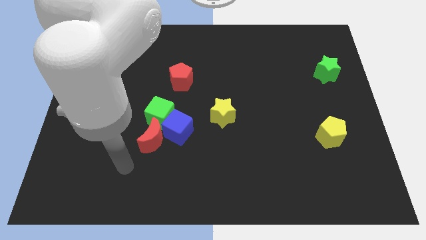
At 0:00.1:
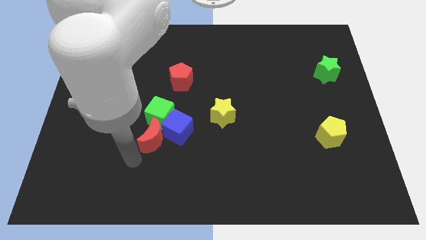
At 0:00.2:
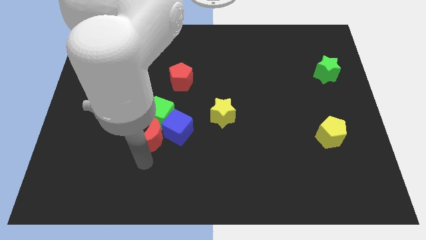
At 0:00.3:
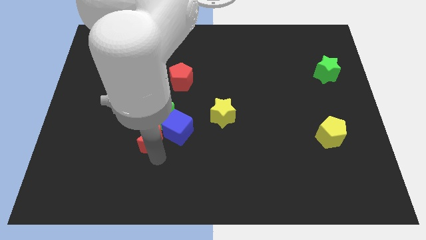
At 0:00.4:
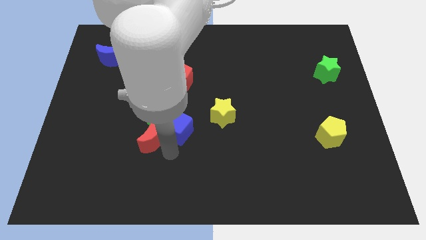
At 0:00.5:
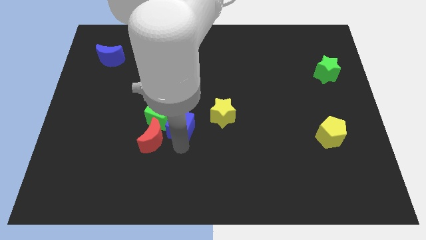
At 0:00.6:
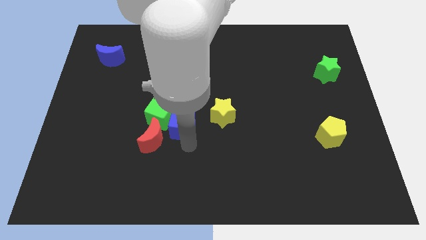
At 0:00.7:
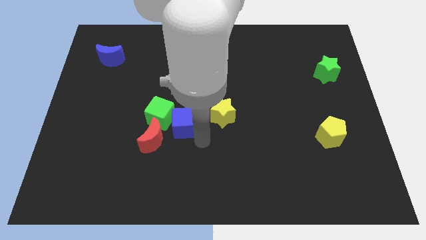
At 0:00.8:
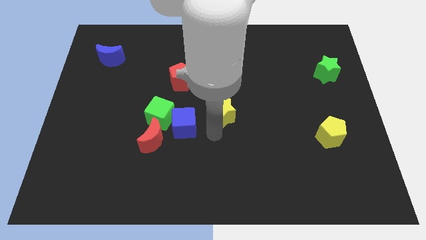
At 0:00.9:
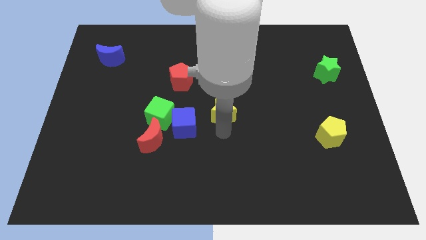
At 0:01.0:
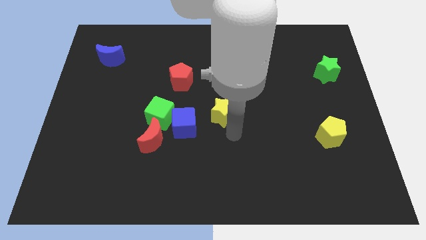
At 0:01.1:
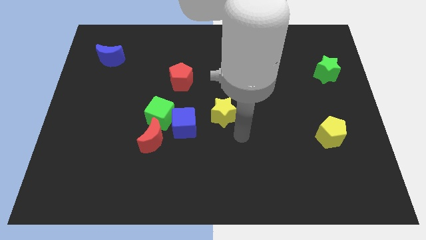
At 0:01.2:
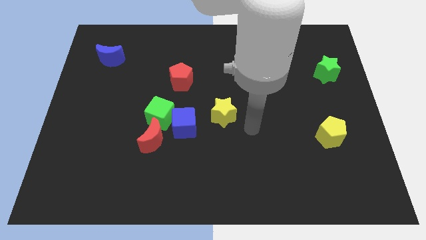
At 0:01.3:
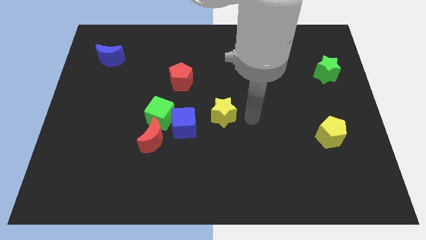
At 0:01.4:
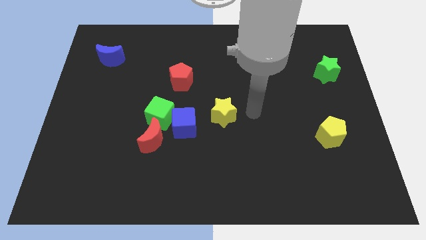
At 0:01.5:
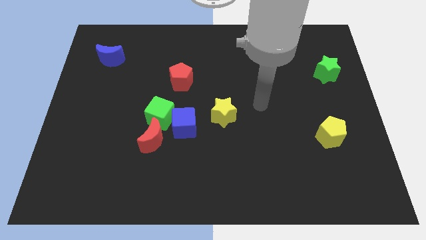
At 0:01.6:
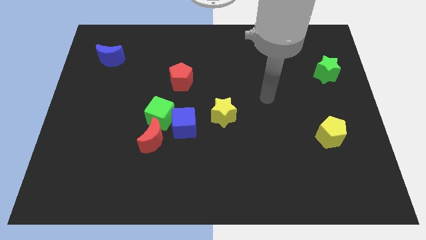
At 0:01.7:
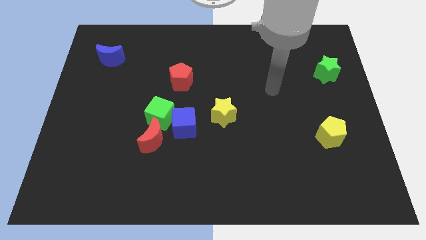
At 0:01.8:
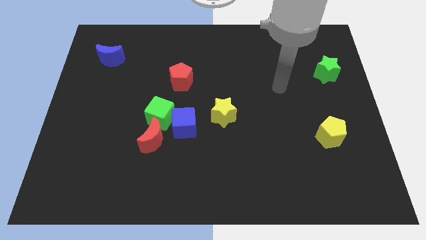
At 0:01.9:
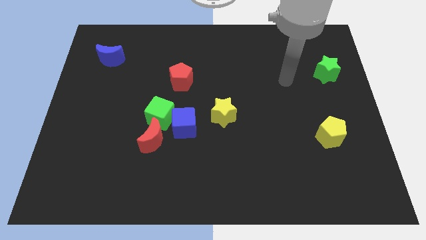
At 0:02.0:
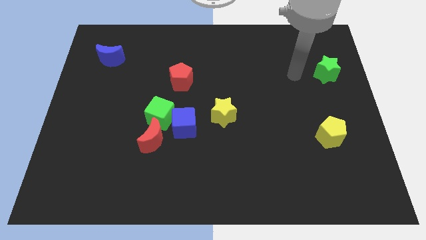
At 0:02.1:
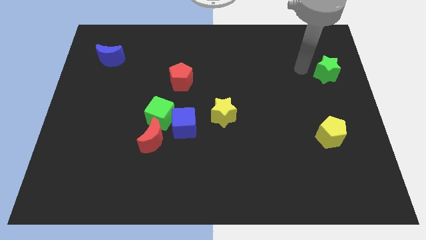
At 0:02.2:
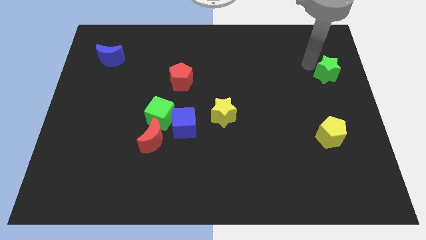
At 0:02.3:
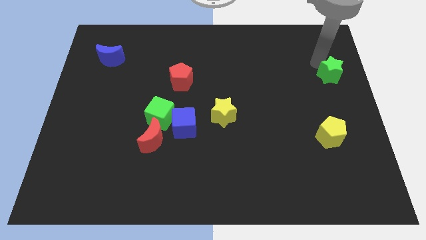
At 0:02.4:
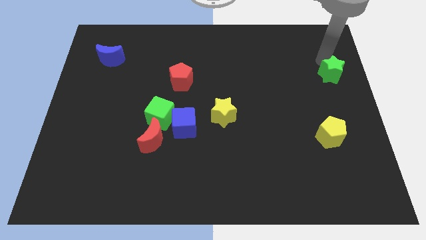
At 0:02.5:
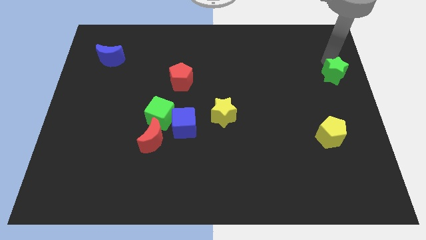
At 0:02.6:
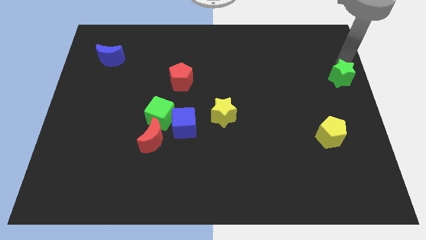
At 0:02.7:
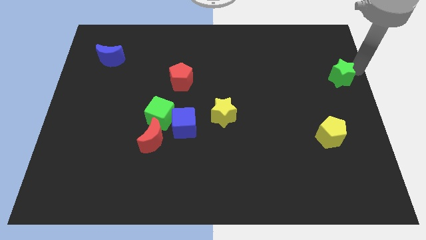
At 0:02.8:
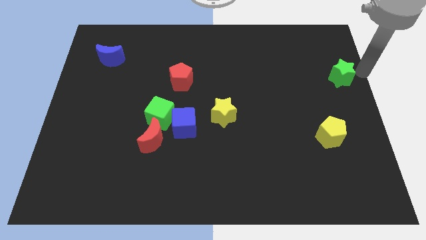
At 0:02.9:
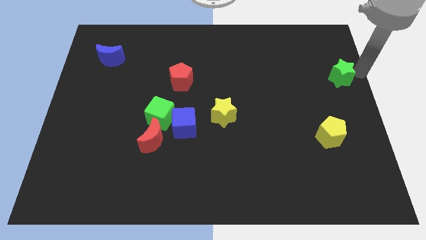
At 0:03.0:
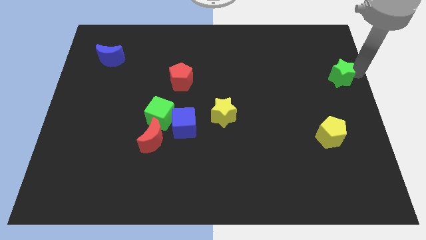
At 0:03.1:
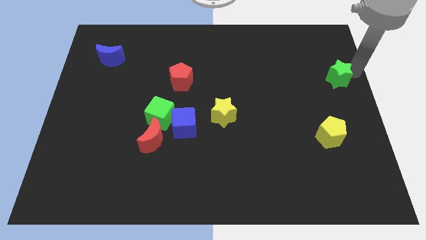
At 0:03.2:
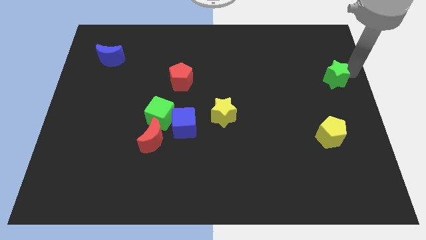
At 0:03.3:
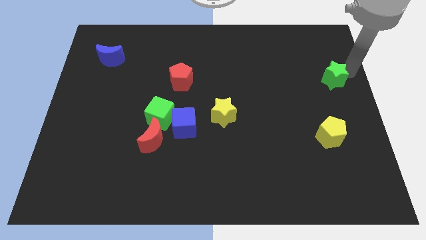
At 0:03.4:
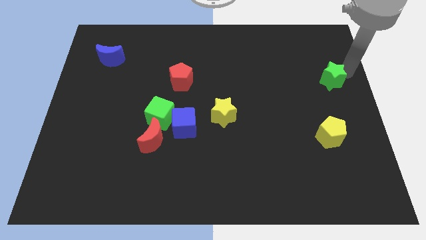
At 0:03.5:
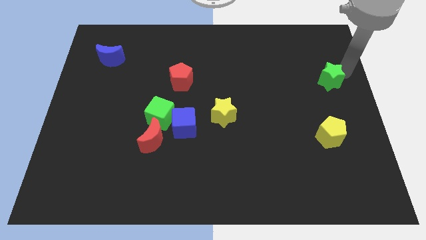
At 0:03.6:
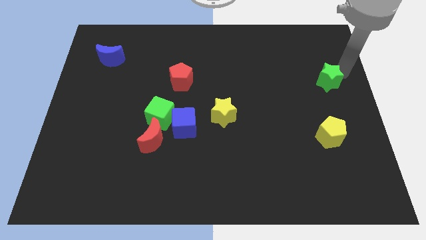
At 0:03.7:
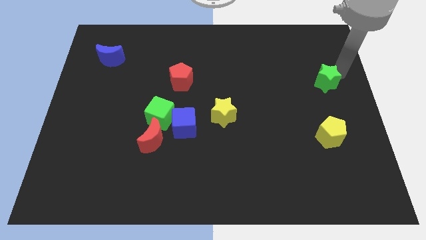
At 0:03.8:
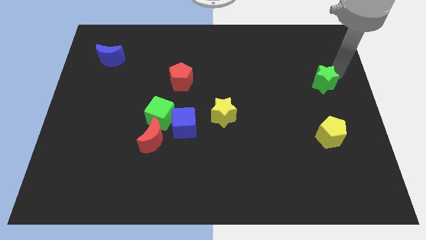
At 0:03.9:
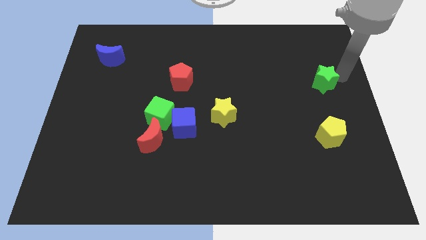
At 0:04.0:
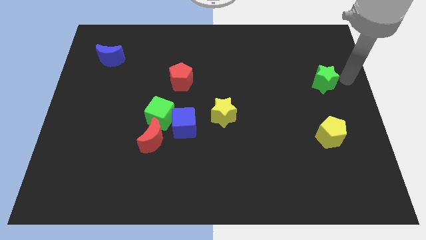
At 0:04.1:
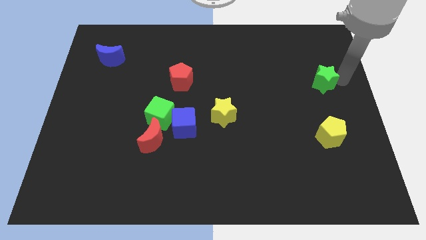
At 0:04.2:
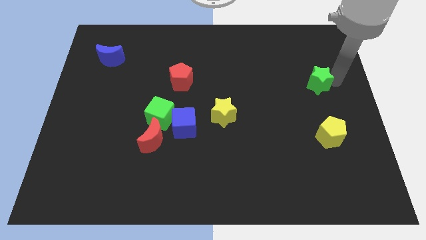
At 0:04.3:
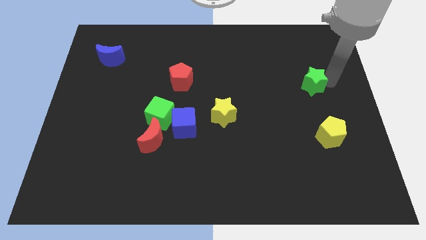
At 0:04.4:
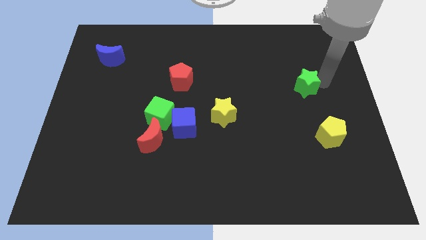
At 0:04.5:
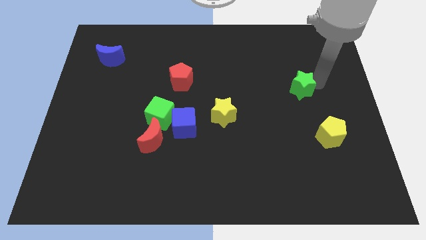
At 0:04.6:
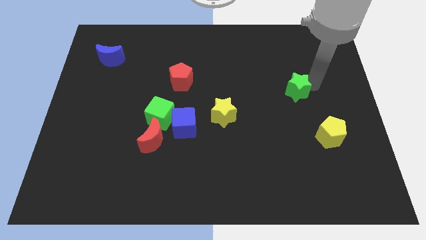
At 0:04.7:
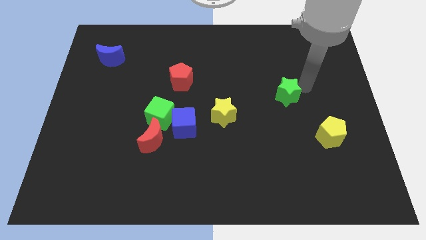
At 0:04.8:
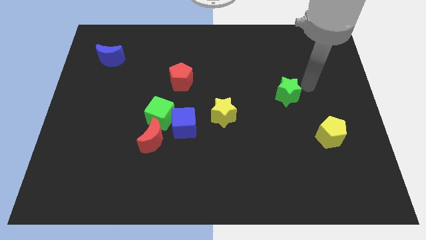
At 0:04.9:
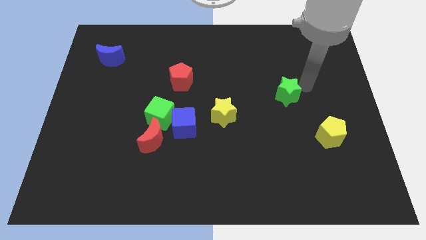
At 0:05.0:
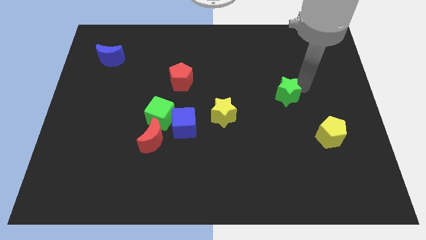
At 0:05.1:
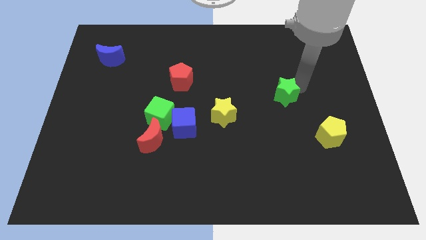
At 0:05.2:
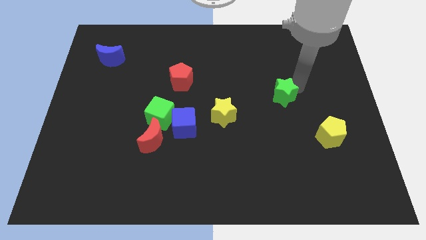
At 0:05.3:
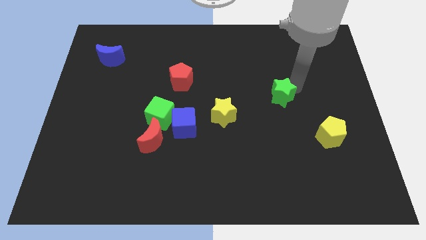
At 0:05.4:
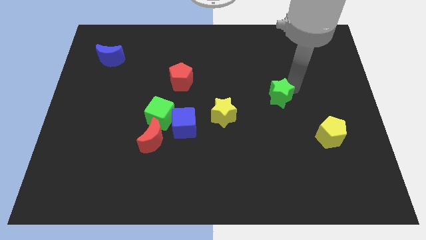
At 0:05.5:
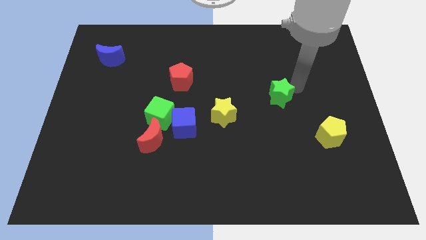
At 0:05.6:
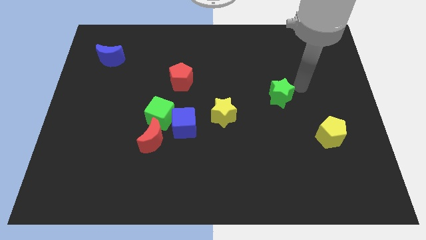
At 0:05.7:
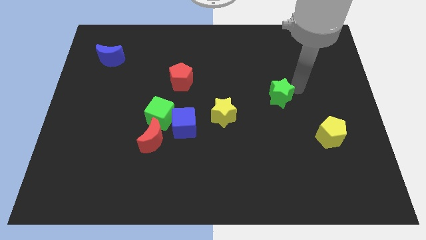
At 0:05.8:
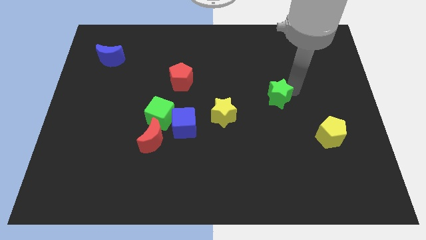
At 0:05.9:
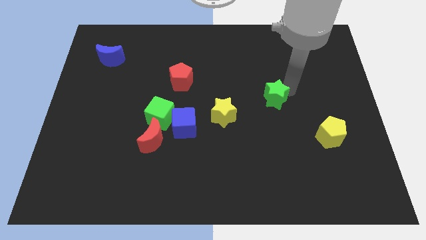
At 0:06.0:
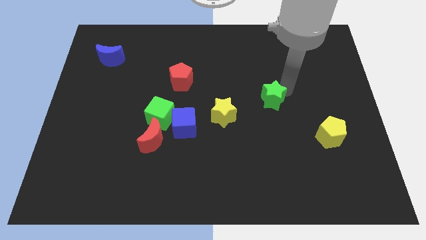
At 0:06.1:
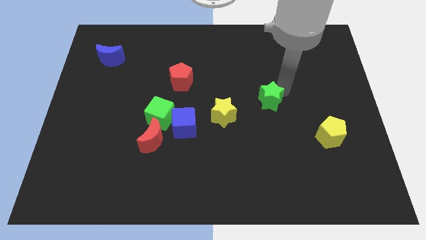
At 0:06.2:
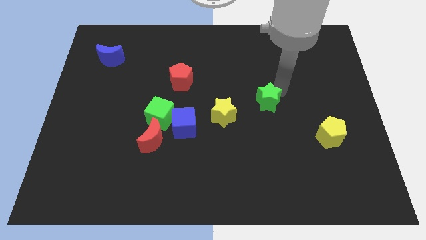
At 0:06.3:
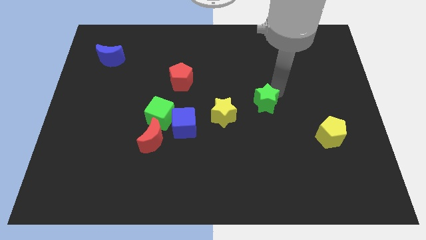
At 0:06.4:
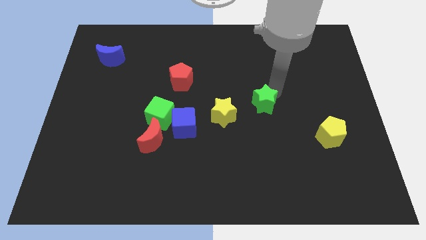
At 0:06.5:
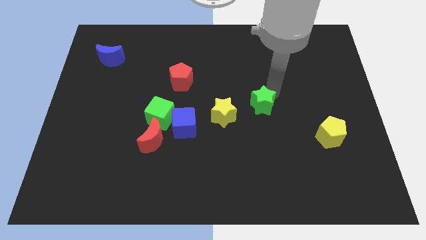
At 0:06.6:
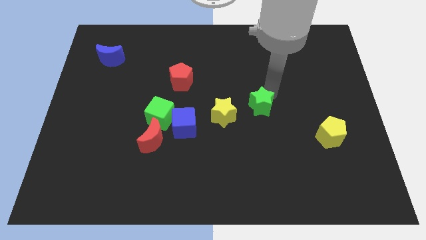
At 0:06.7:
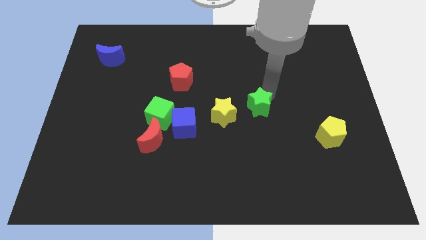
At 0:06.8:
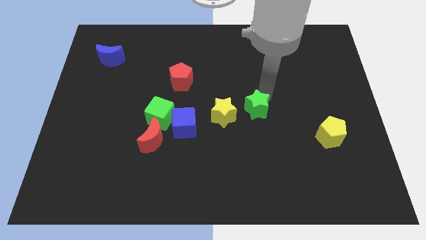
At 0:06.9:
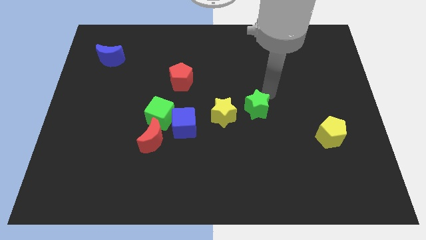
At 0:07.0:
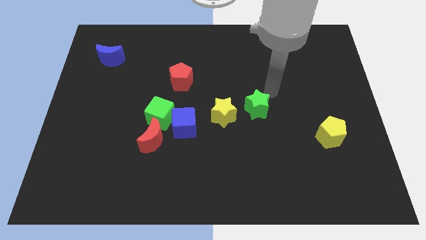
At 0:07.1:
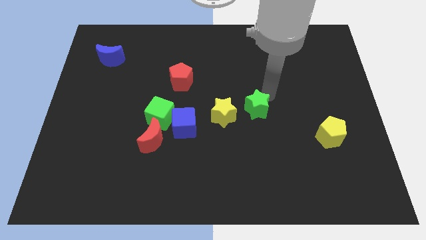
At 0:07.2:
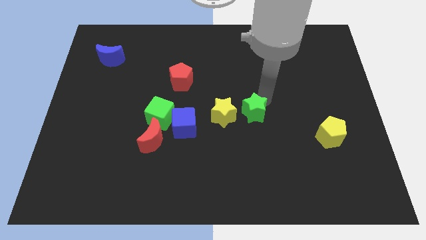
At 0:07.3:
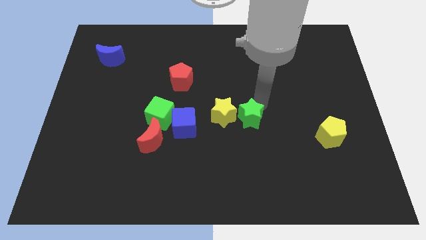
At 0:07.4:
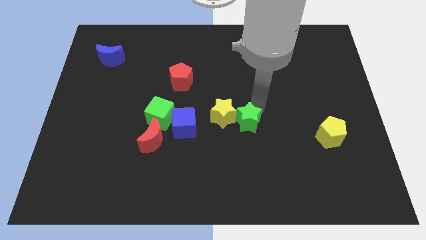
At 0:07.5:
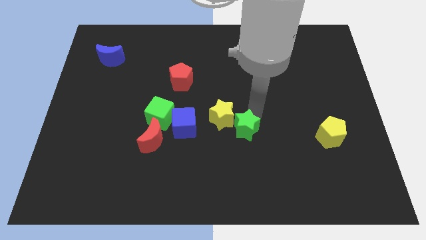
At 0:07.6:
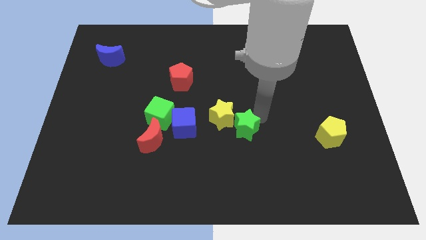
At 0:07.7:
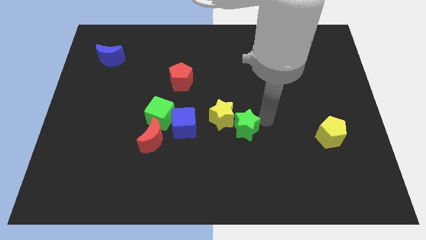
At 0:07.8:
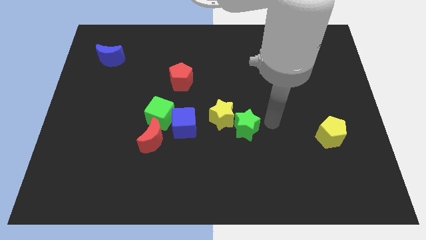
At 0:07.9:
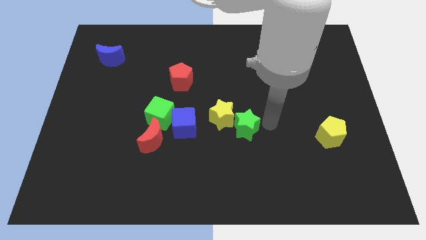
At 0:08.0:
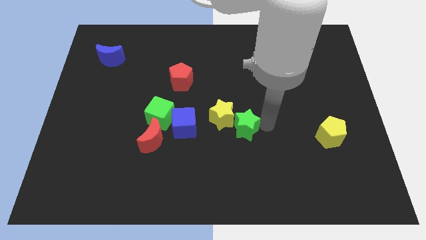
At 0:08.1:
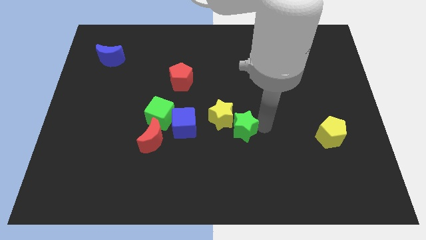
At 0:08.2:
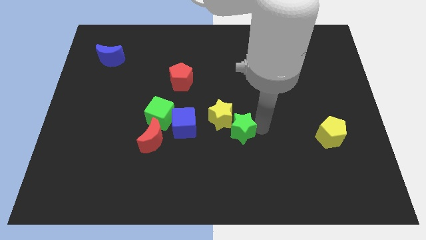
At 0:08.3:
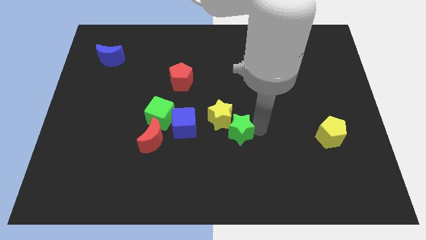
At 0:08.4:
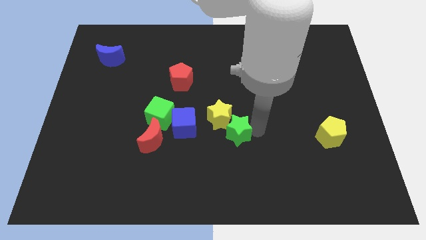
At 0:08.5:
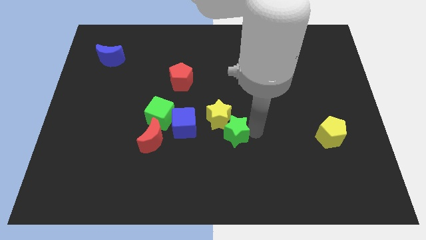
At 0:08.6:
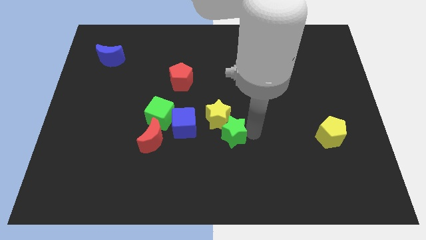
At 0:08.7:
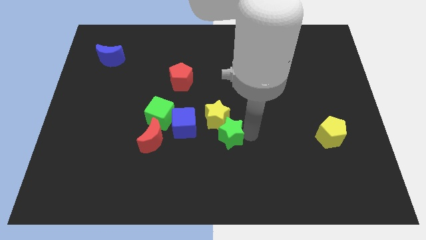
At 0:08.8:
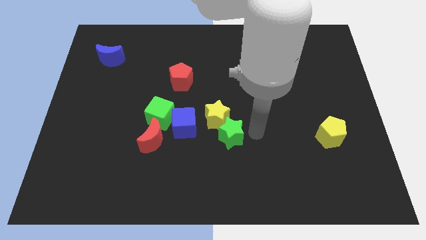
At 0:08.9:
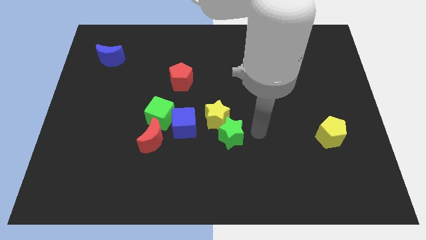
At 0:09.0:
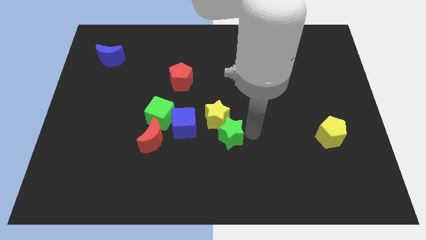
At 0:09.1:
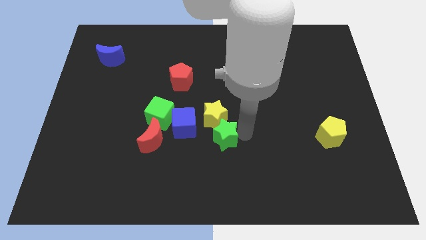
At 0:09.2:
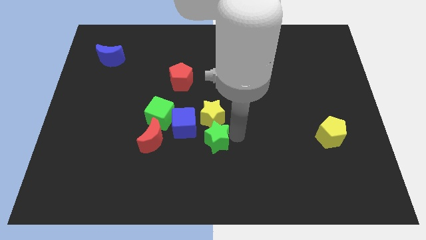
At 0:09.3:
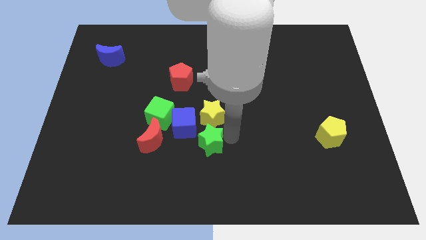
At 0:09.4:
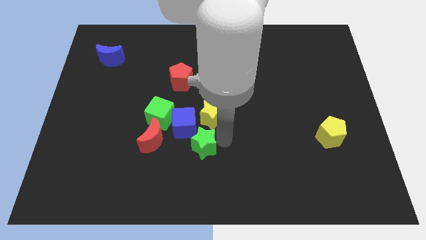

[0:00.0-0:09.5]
push the green star to the bottom right of the green cube
